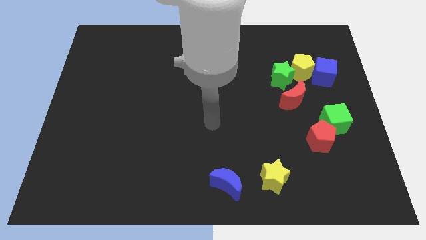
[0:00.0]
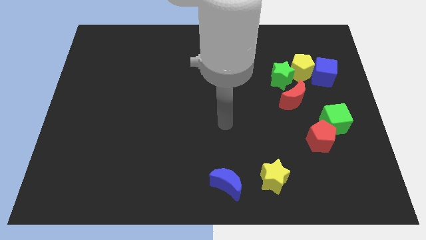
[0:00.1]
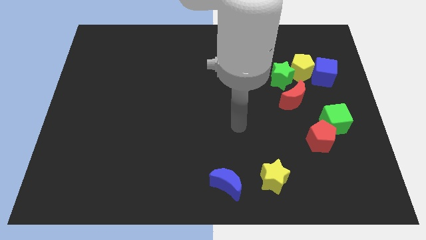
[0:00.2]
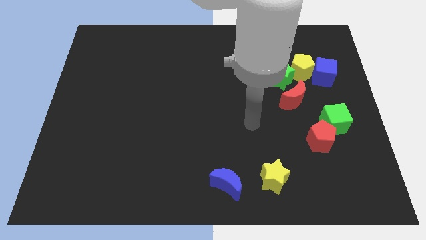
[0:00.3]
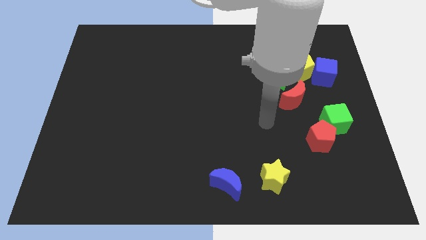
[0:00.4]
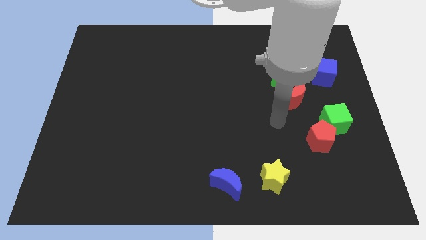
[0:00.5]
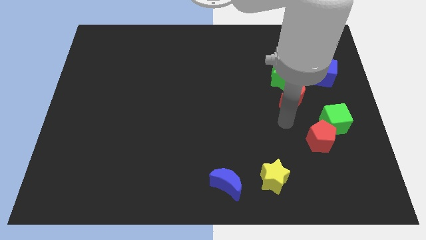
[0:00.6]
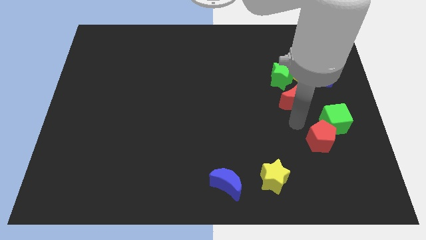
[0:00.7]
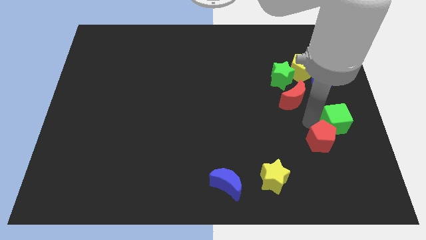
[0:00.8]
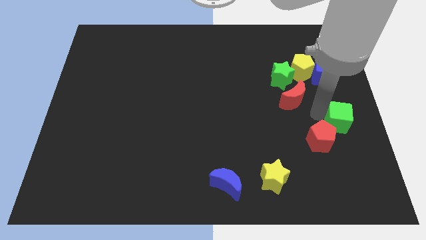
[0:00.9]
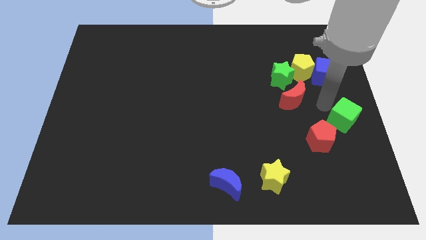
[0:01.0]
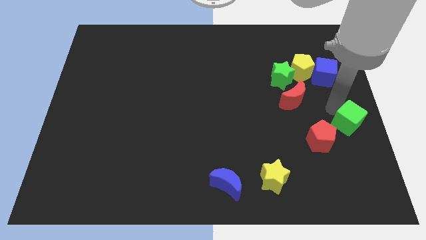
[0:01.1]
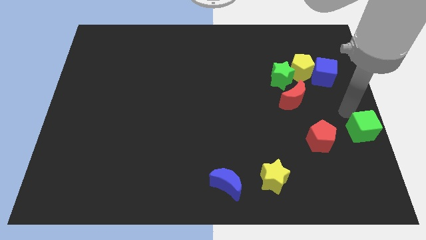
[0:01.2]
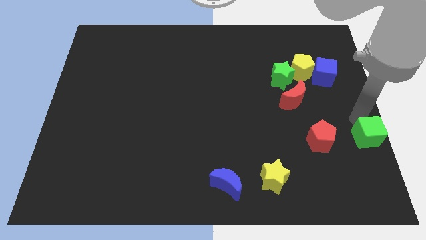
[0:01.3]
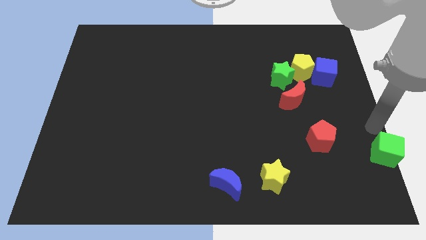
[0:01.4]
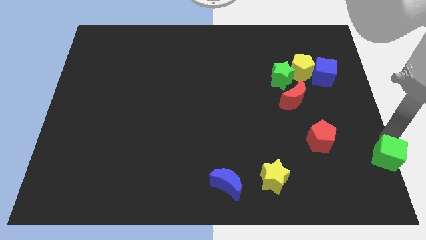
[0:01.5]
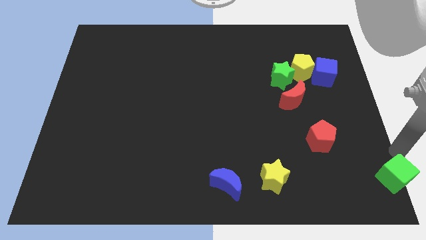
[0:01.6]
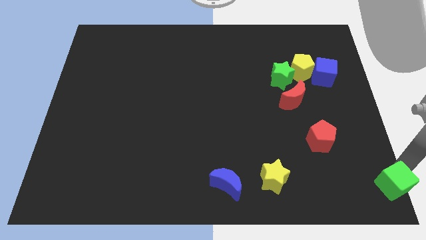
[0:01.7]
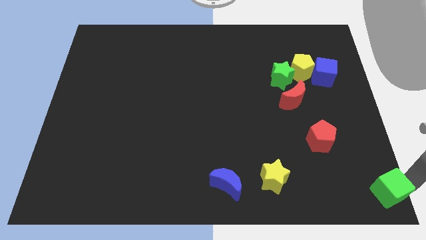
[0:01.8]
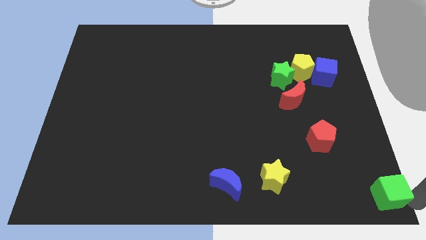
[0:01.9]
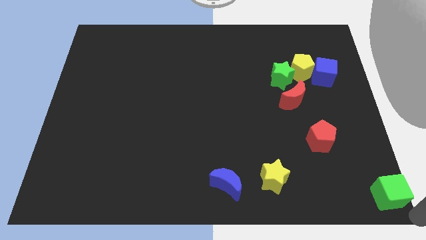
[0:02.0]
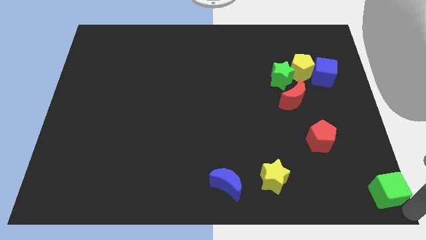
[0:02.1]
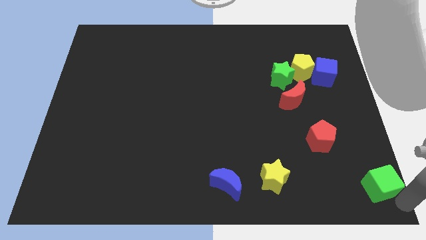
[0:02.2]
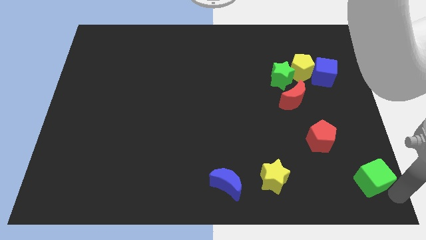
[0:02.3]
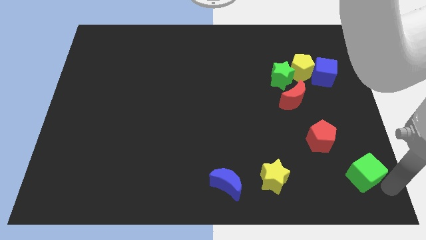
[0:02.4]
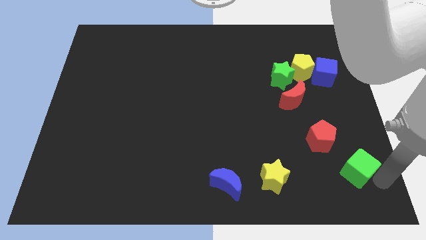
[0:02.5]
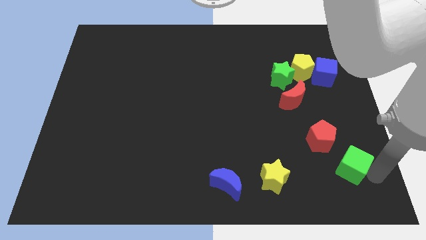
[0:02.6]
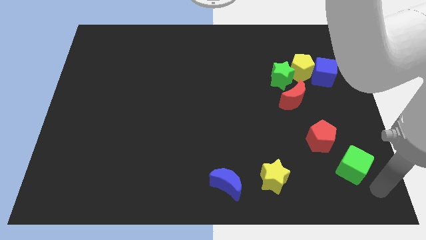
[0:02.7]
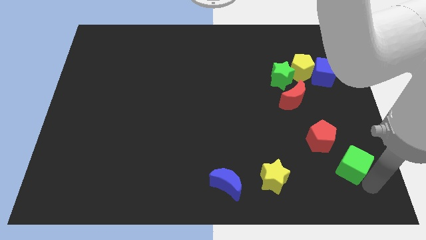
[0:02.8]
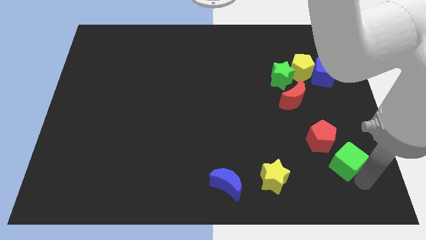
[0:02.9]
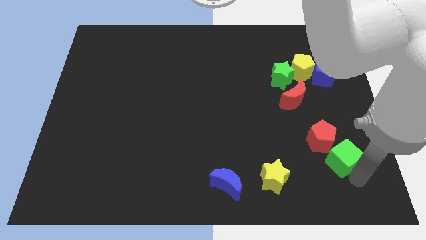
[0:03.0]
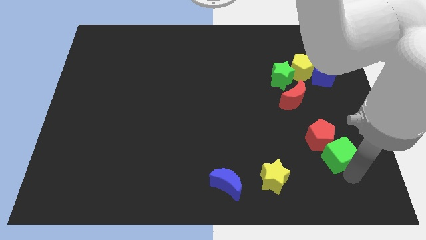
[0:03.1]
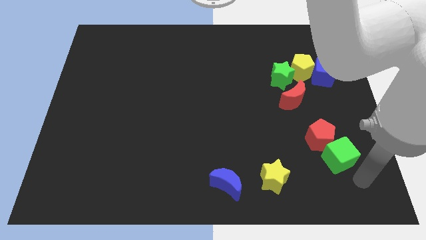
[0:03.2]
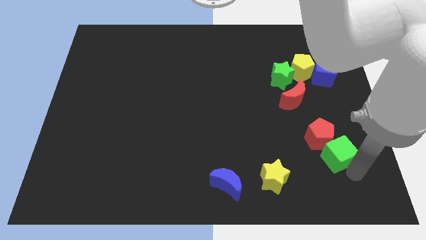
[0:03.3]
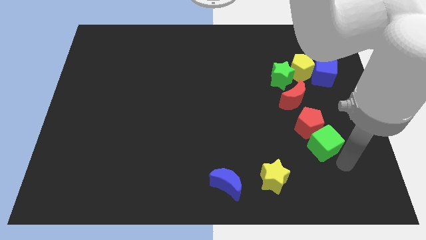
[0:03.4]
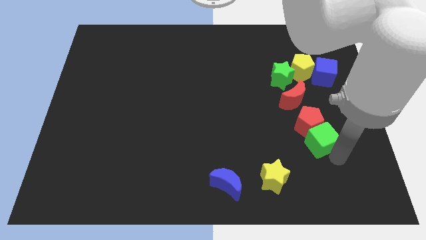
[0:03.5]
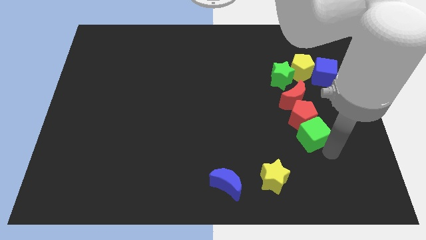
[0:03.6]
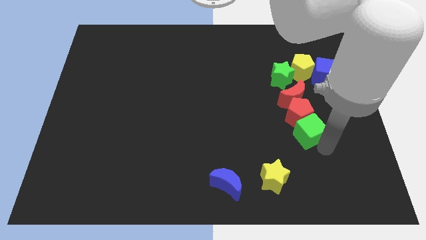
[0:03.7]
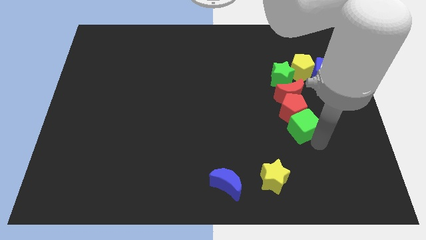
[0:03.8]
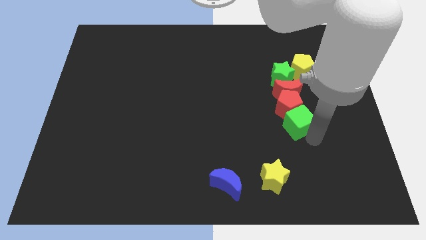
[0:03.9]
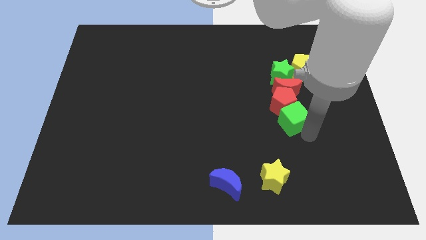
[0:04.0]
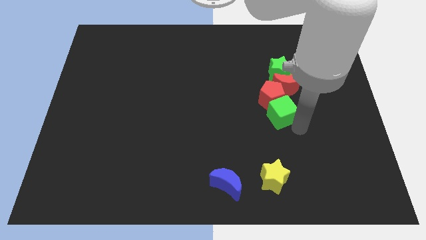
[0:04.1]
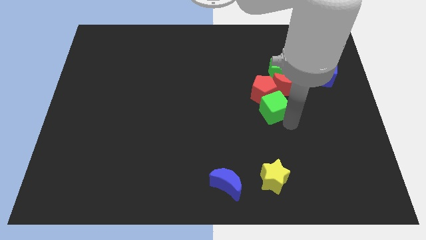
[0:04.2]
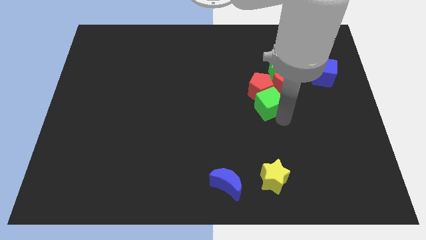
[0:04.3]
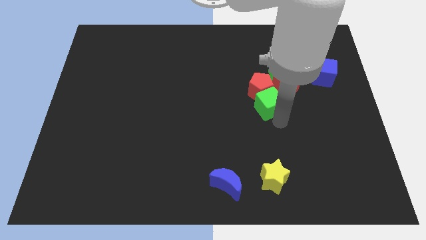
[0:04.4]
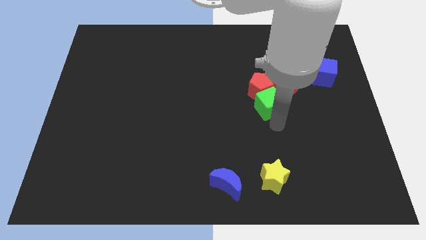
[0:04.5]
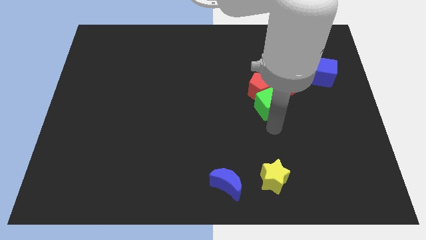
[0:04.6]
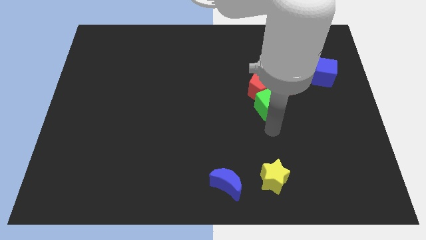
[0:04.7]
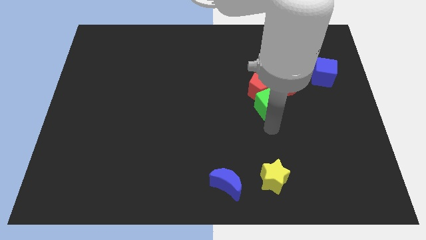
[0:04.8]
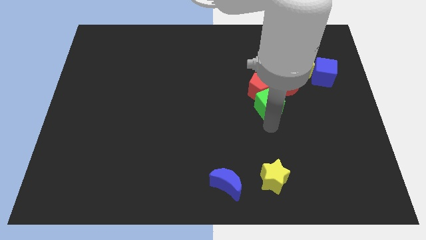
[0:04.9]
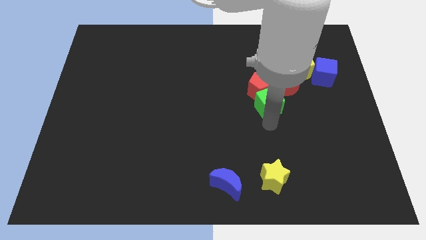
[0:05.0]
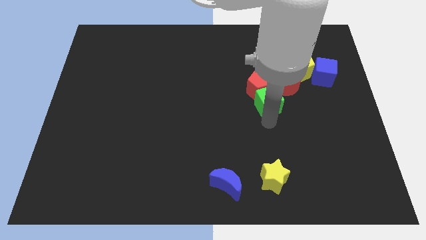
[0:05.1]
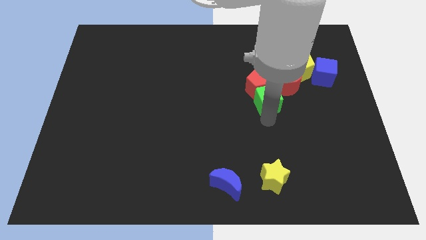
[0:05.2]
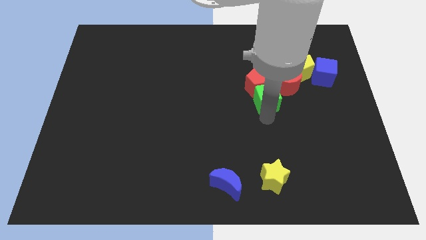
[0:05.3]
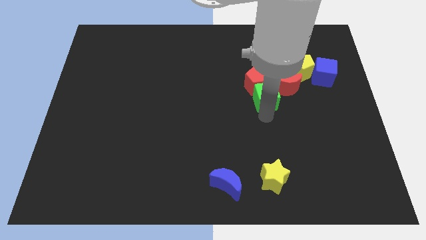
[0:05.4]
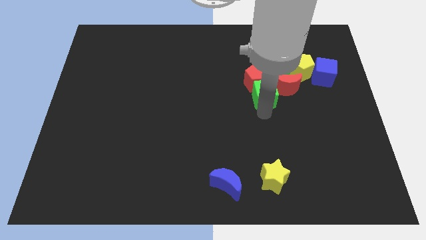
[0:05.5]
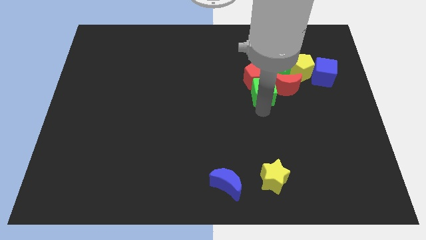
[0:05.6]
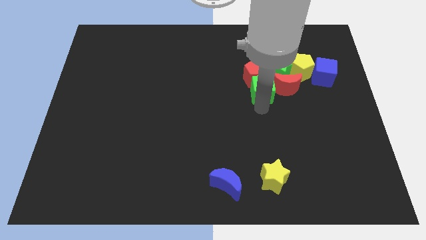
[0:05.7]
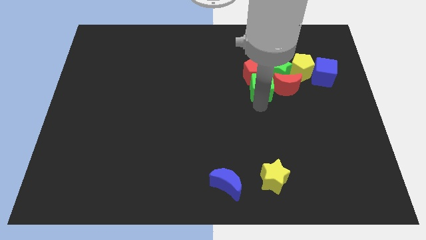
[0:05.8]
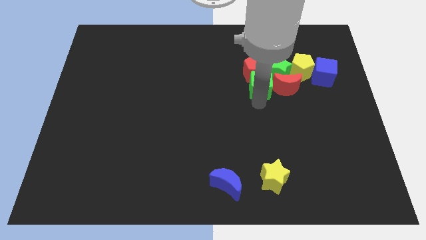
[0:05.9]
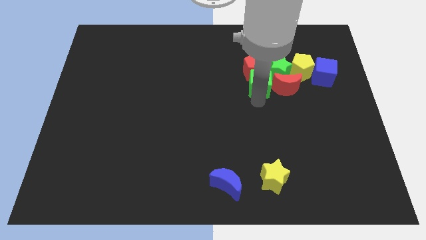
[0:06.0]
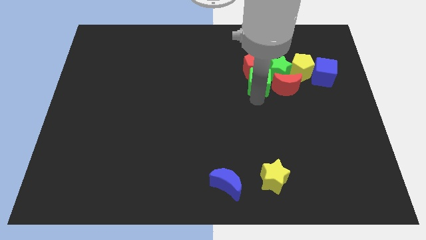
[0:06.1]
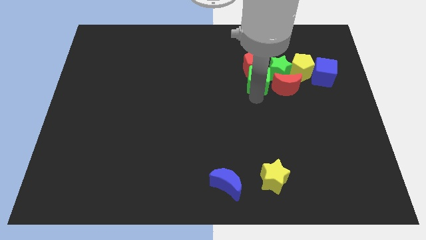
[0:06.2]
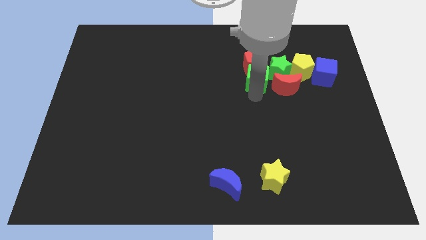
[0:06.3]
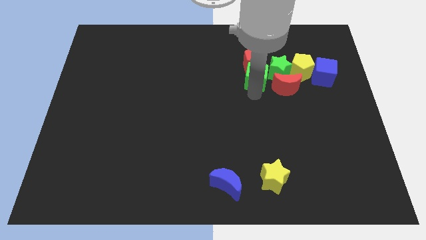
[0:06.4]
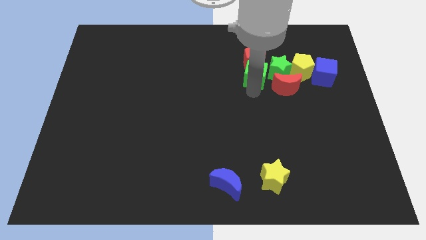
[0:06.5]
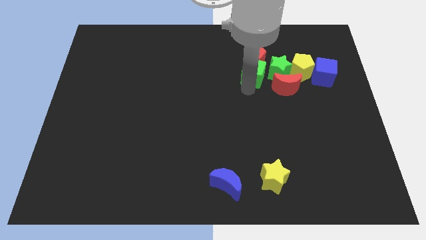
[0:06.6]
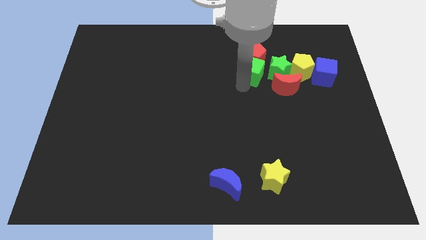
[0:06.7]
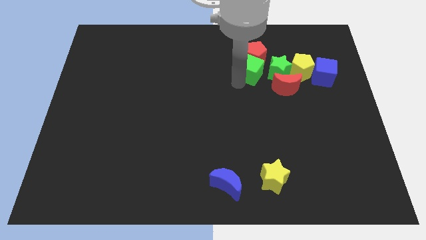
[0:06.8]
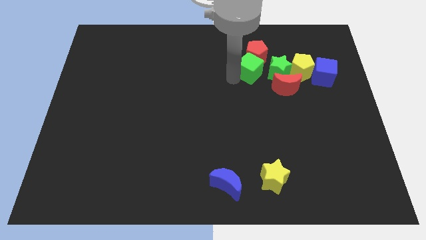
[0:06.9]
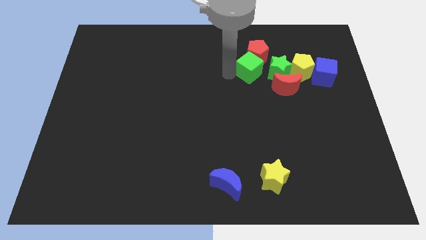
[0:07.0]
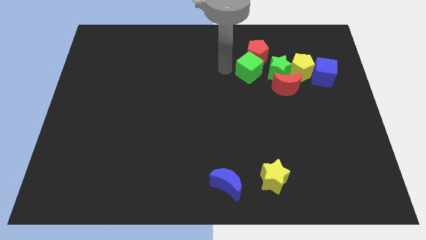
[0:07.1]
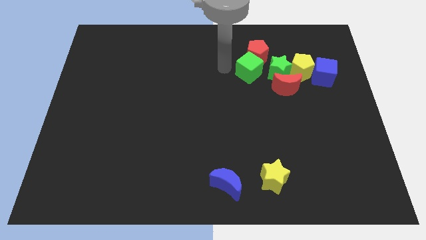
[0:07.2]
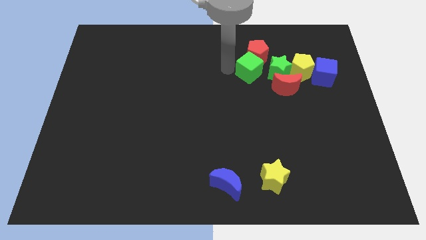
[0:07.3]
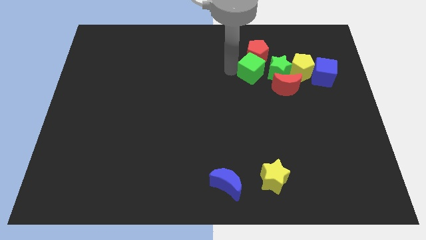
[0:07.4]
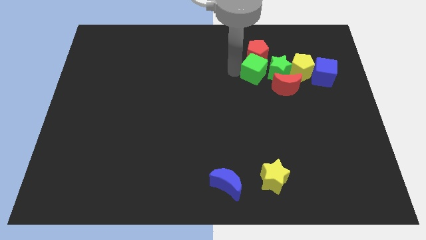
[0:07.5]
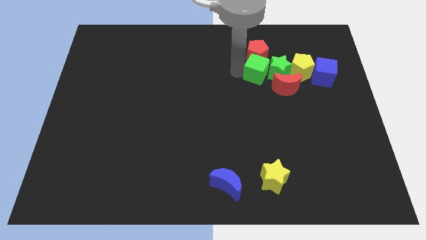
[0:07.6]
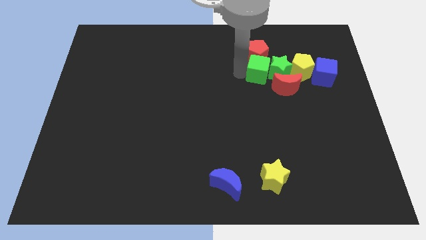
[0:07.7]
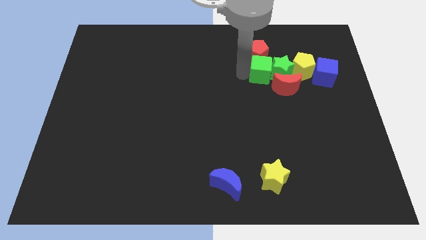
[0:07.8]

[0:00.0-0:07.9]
push the green cube to the left side of the blue cube

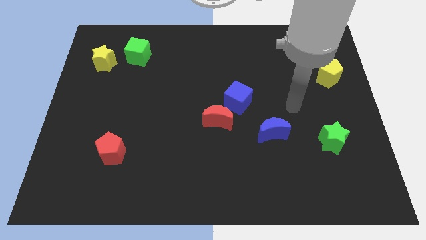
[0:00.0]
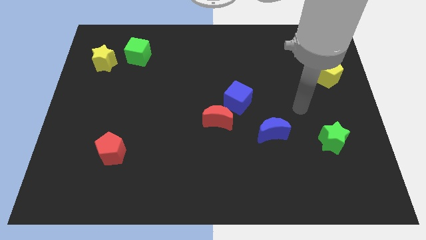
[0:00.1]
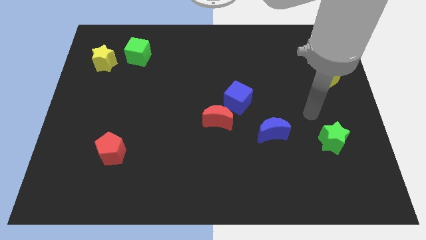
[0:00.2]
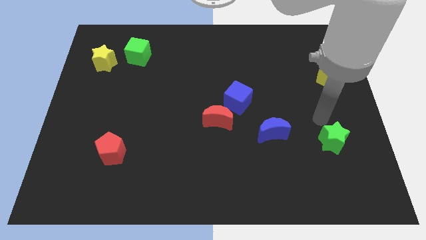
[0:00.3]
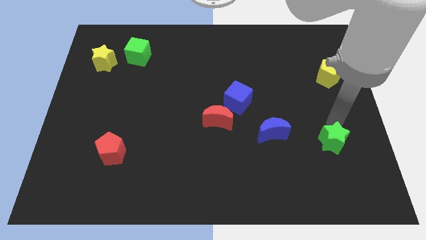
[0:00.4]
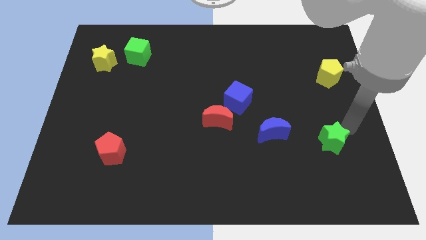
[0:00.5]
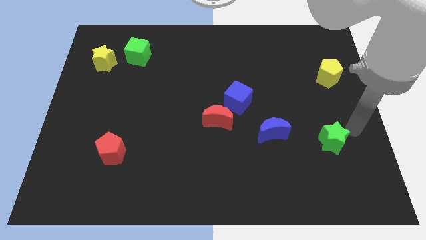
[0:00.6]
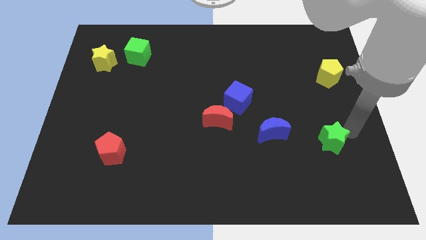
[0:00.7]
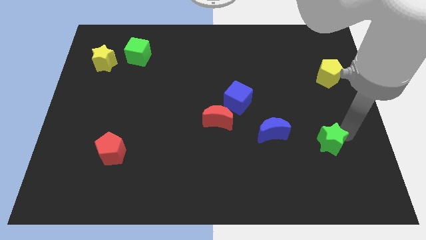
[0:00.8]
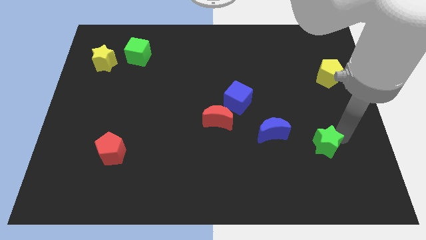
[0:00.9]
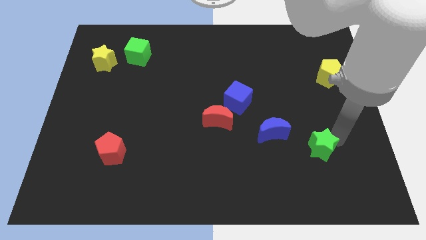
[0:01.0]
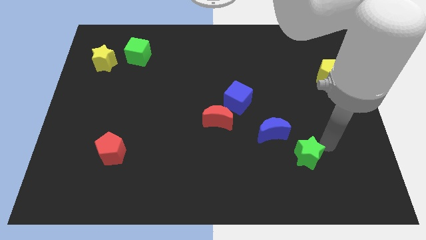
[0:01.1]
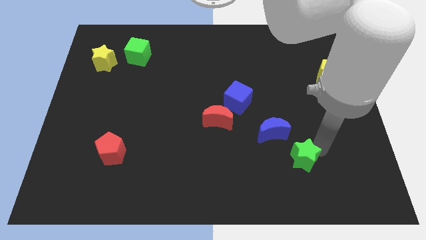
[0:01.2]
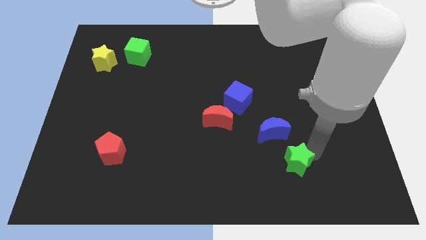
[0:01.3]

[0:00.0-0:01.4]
slide the green star to the bottom side of the blue moon
